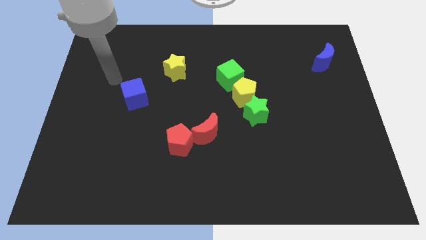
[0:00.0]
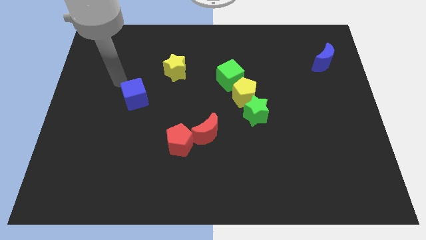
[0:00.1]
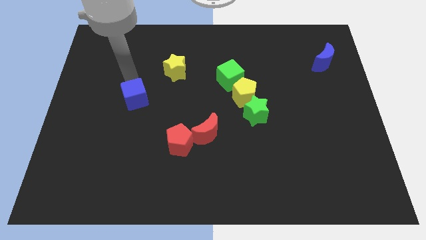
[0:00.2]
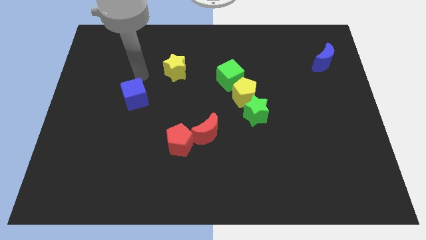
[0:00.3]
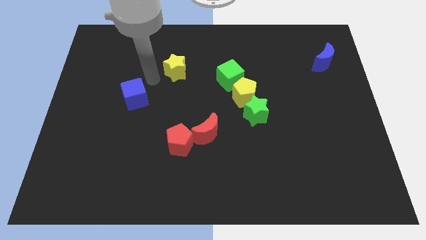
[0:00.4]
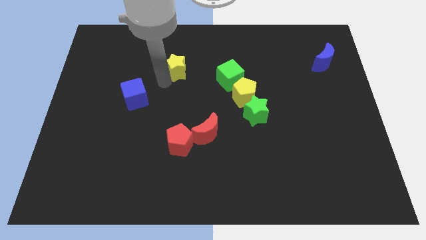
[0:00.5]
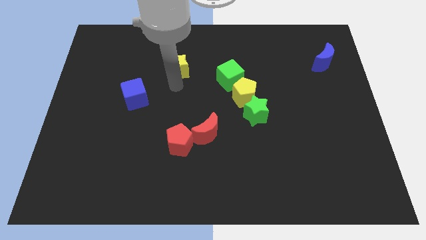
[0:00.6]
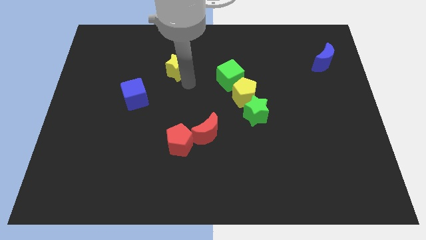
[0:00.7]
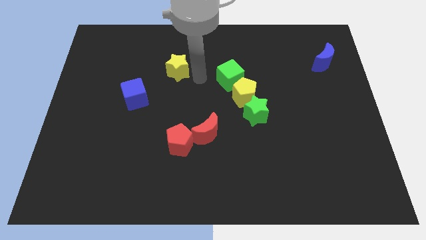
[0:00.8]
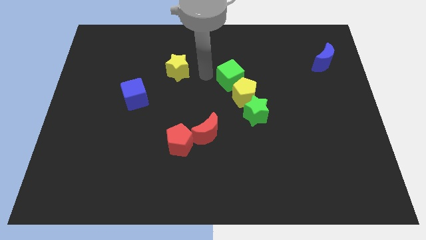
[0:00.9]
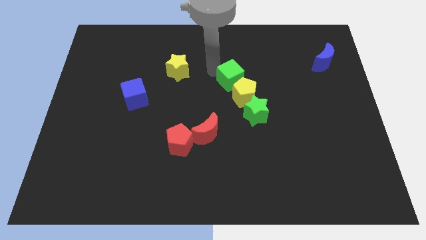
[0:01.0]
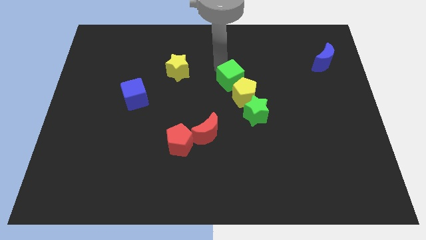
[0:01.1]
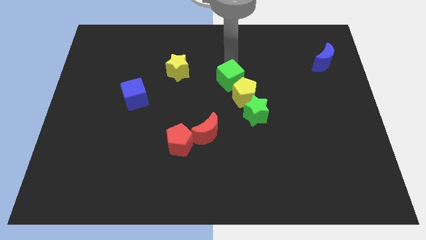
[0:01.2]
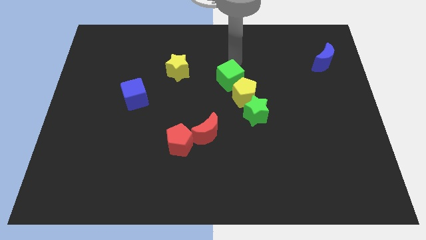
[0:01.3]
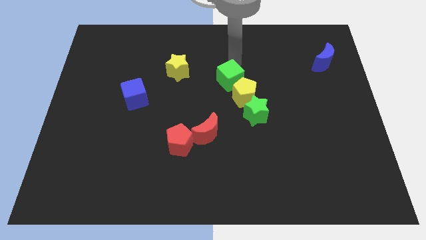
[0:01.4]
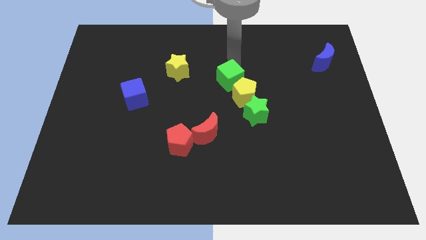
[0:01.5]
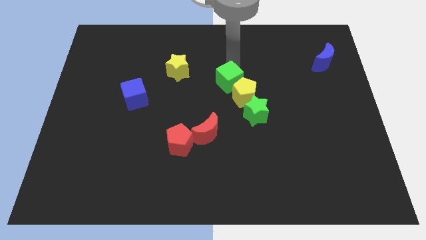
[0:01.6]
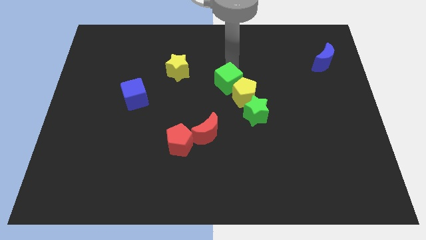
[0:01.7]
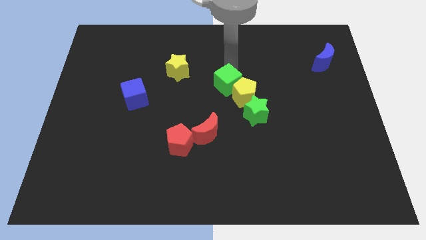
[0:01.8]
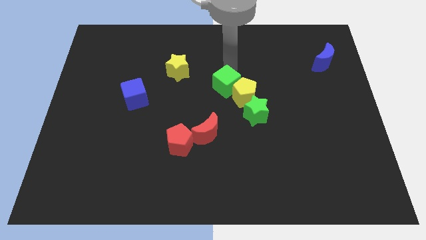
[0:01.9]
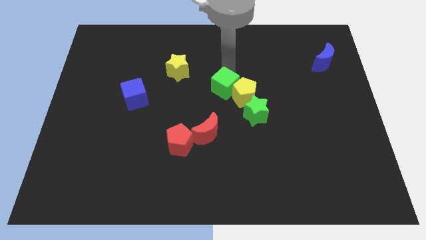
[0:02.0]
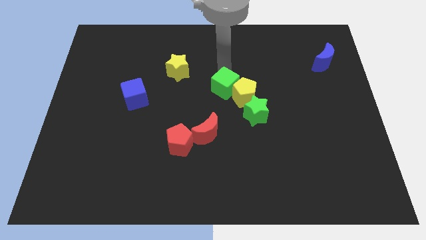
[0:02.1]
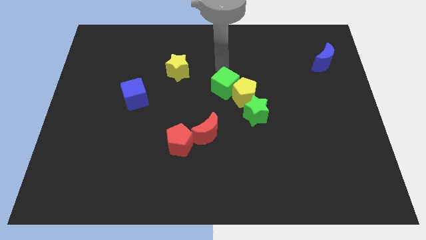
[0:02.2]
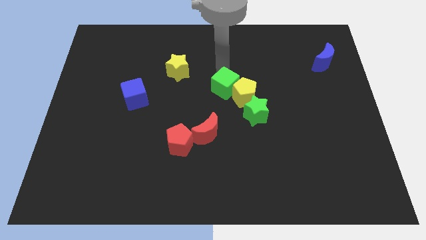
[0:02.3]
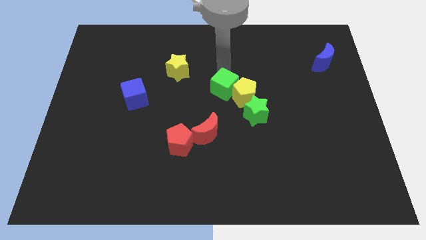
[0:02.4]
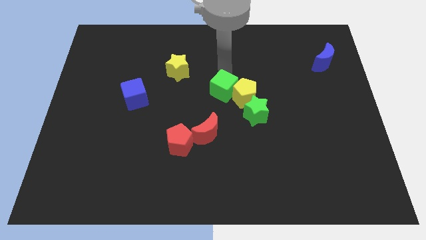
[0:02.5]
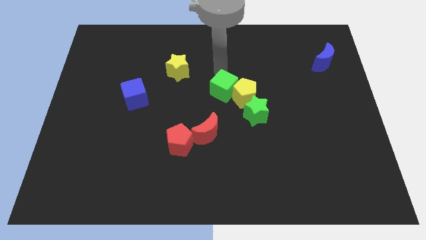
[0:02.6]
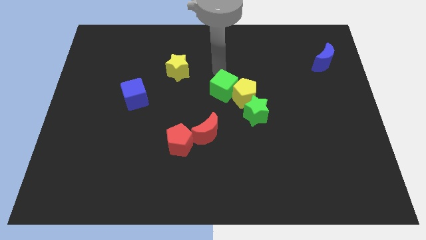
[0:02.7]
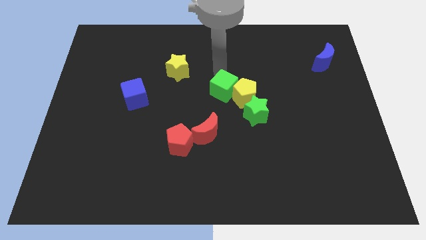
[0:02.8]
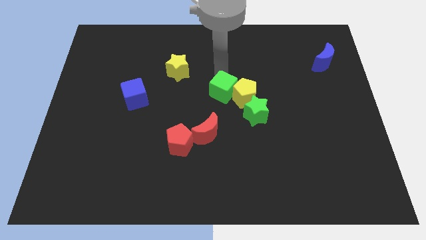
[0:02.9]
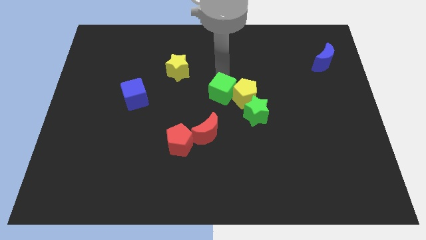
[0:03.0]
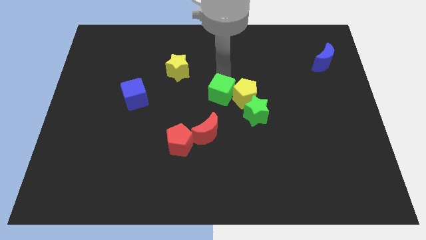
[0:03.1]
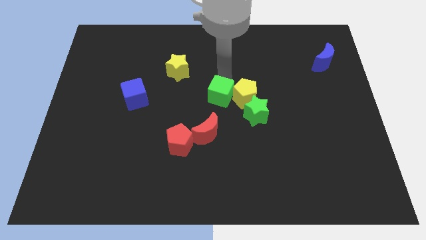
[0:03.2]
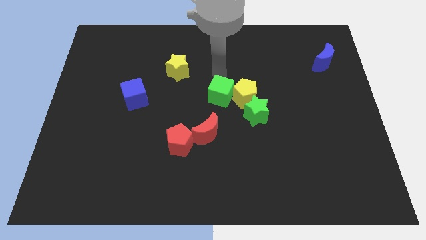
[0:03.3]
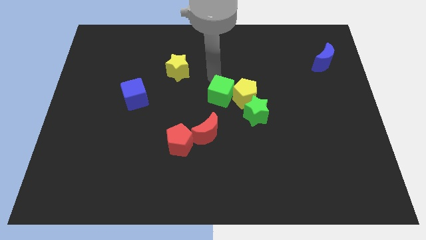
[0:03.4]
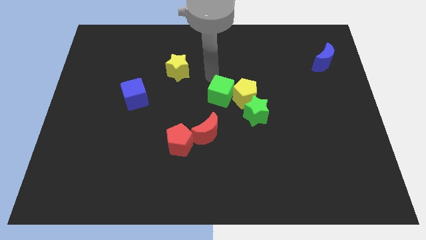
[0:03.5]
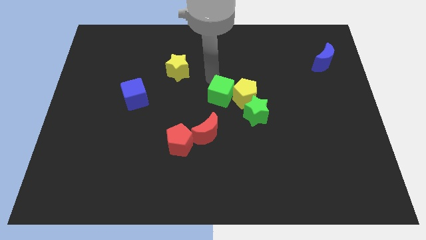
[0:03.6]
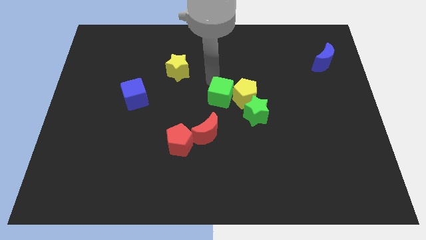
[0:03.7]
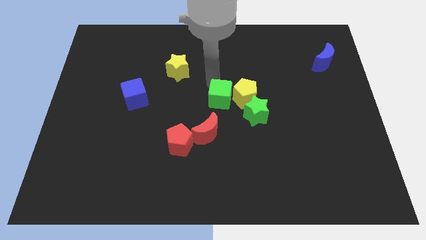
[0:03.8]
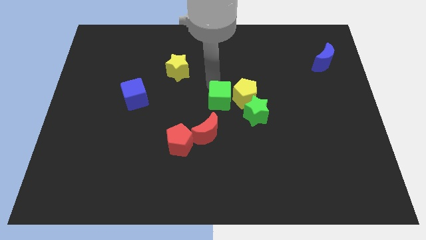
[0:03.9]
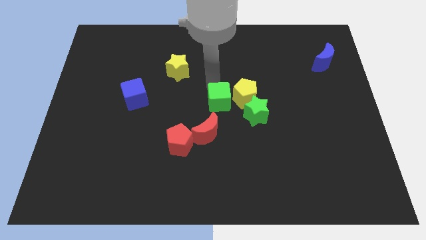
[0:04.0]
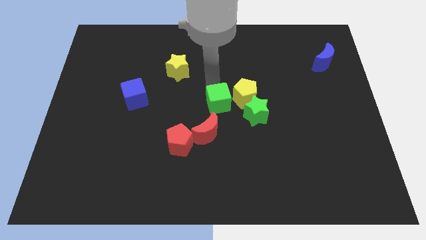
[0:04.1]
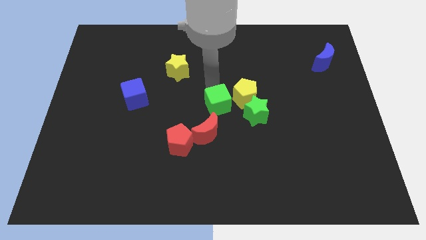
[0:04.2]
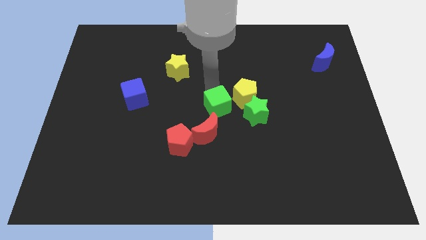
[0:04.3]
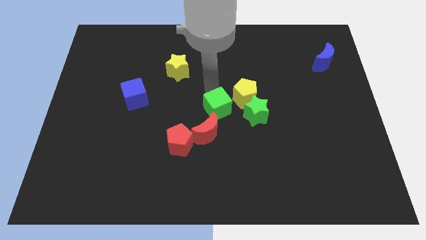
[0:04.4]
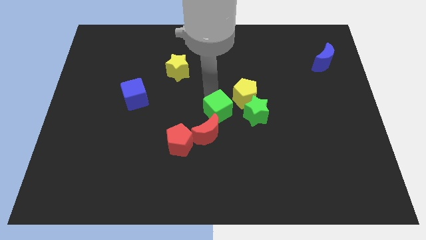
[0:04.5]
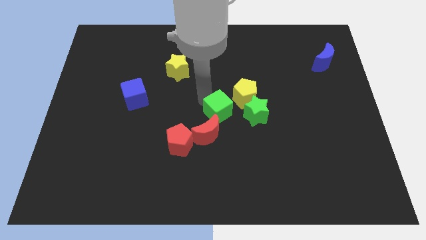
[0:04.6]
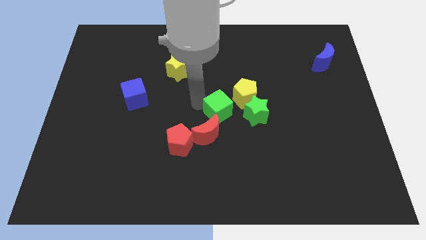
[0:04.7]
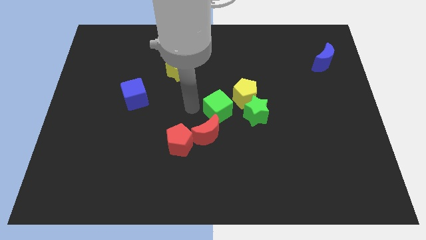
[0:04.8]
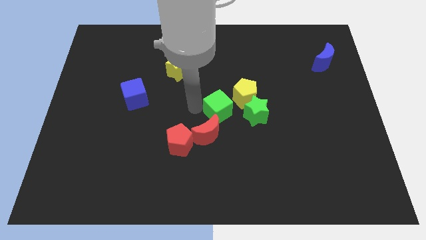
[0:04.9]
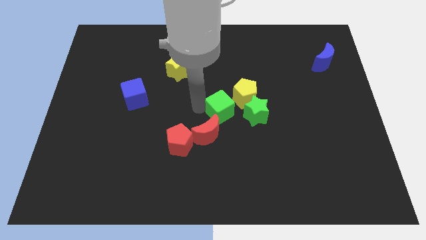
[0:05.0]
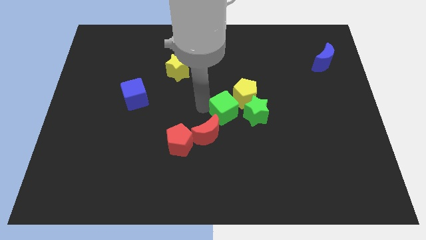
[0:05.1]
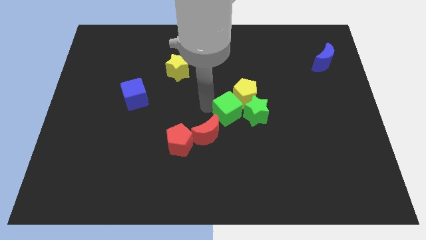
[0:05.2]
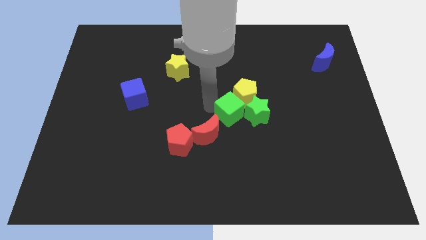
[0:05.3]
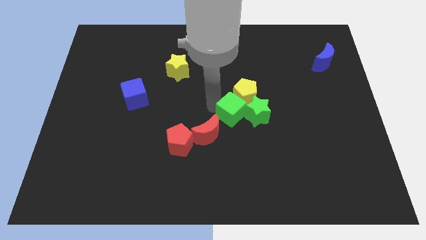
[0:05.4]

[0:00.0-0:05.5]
move the green cube next to the green star

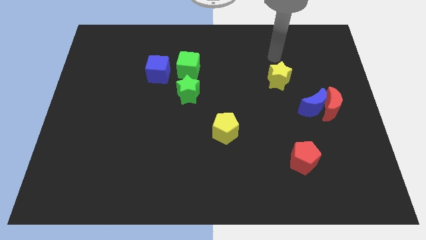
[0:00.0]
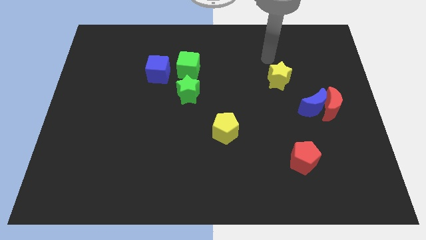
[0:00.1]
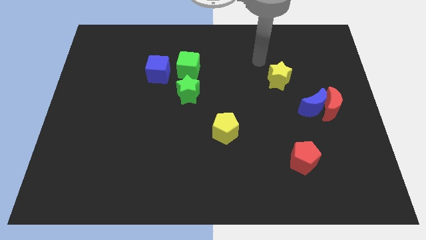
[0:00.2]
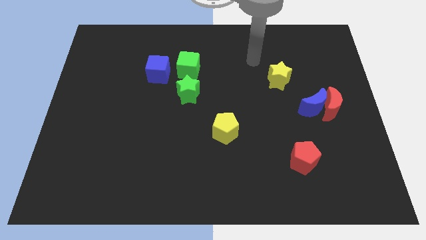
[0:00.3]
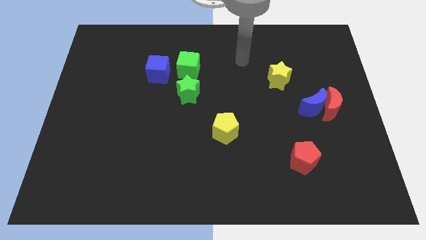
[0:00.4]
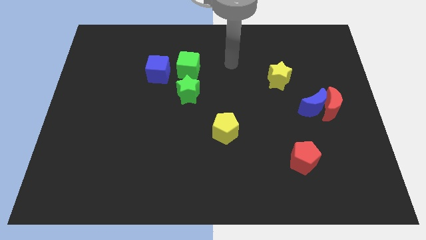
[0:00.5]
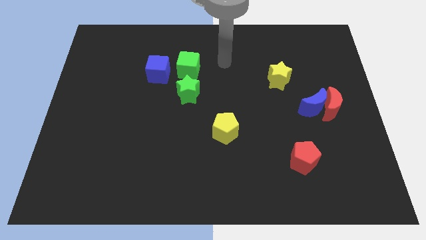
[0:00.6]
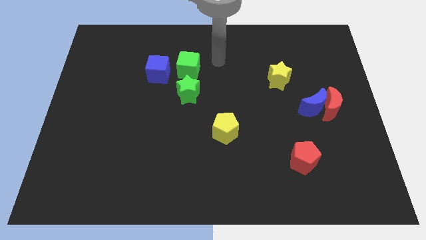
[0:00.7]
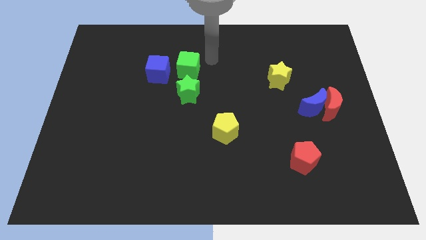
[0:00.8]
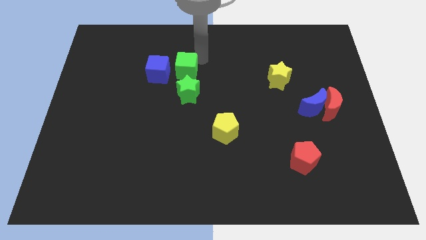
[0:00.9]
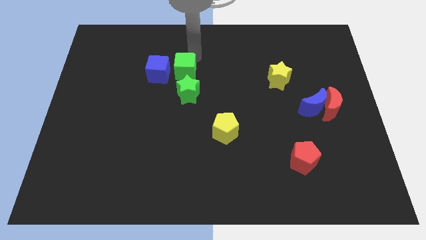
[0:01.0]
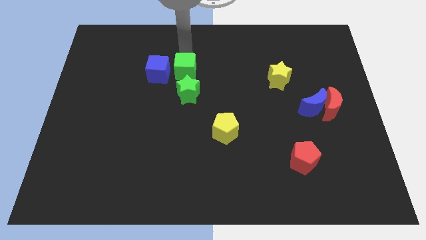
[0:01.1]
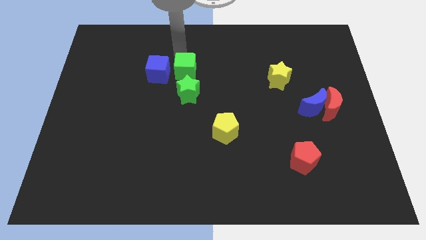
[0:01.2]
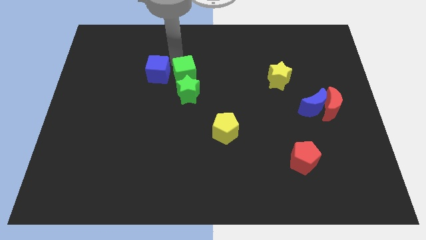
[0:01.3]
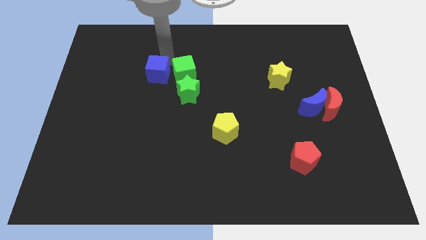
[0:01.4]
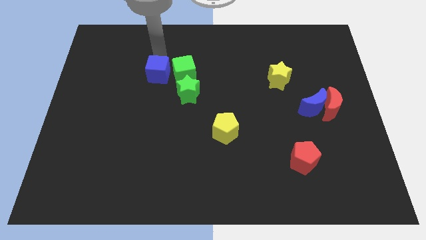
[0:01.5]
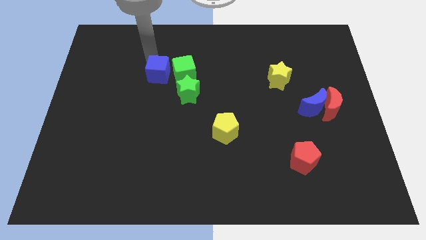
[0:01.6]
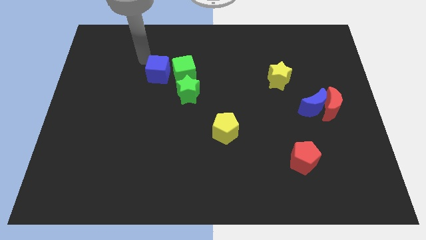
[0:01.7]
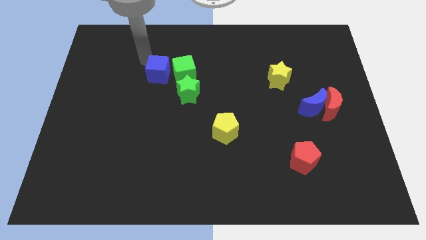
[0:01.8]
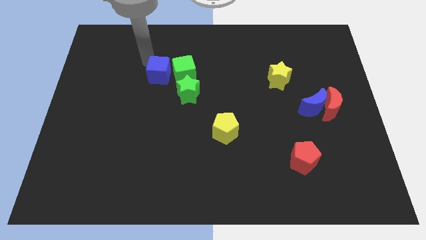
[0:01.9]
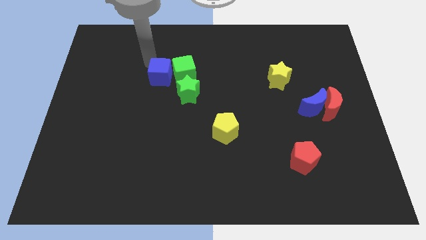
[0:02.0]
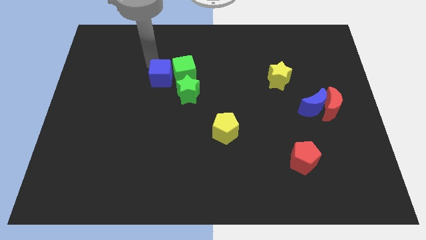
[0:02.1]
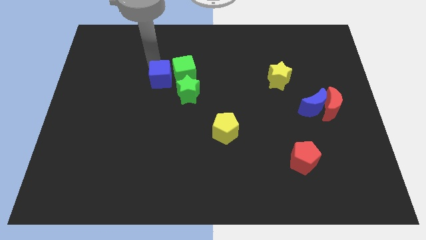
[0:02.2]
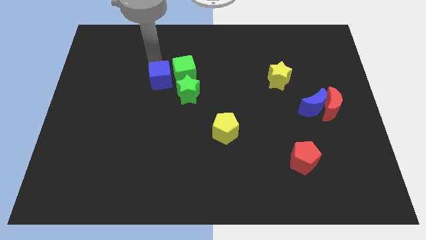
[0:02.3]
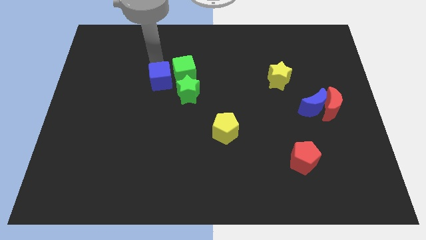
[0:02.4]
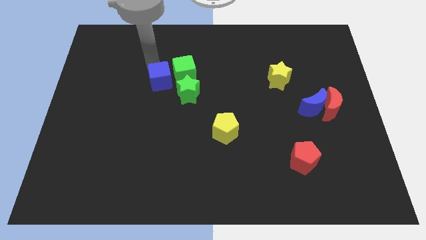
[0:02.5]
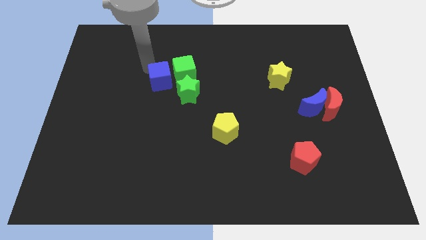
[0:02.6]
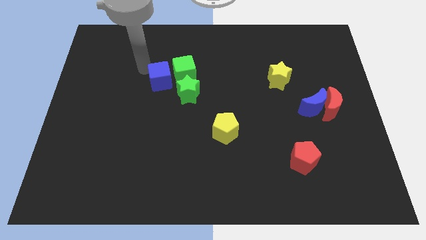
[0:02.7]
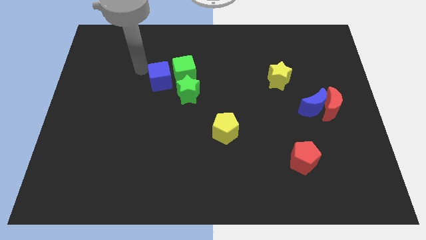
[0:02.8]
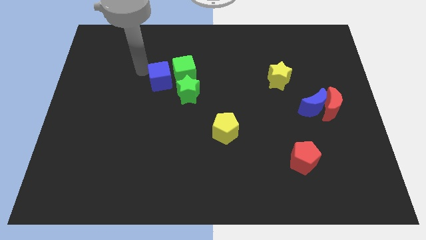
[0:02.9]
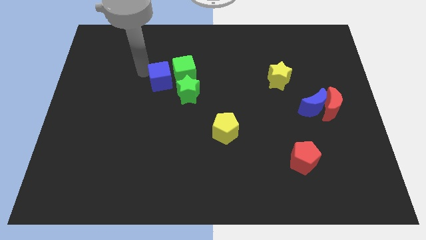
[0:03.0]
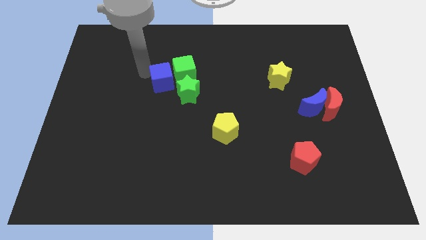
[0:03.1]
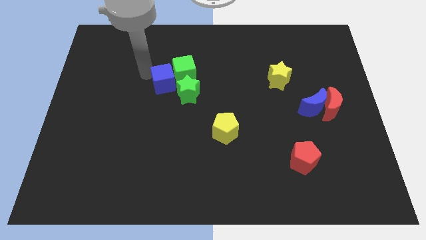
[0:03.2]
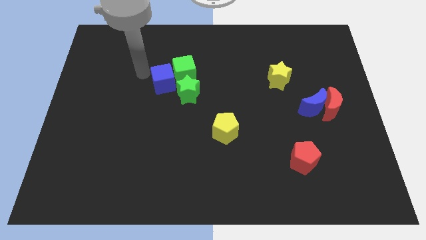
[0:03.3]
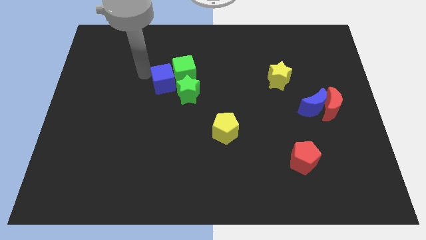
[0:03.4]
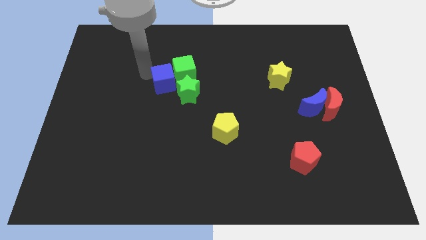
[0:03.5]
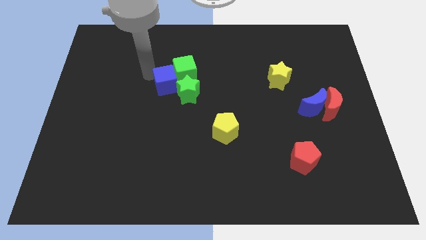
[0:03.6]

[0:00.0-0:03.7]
move the blue cube towards the green star
